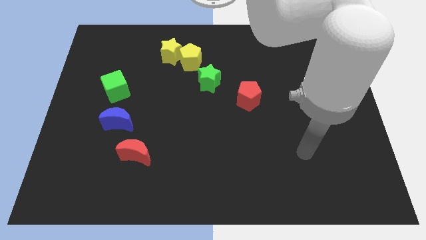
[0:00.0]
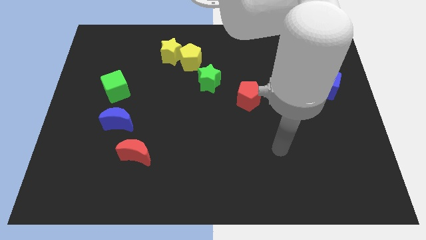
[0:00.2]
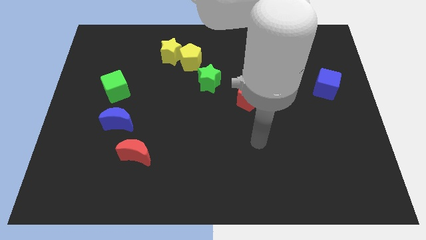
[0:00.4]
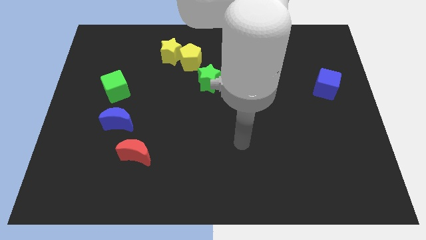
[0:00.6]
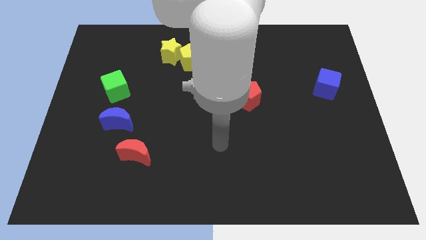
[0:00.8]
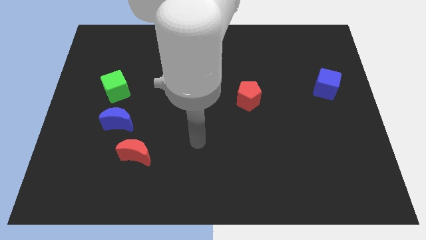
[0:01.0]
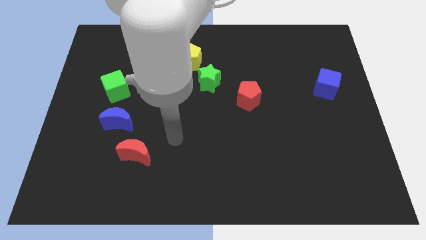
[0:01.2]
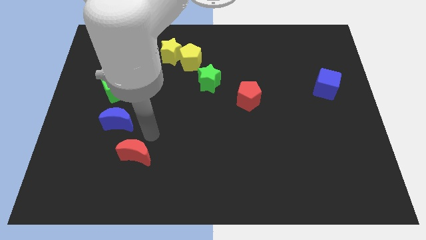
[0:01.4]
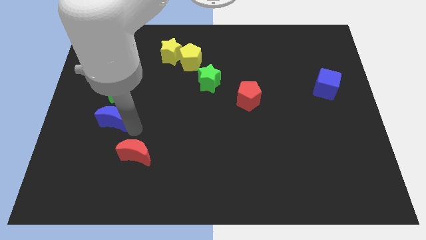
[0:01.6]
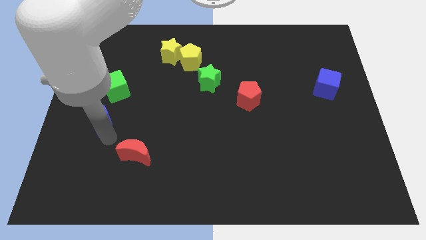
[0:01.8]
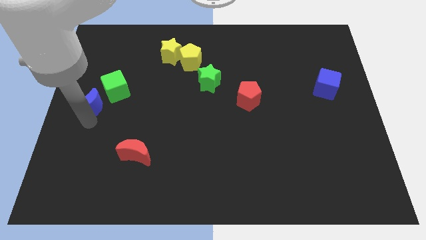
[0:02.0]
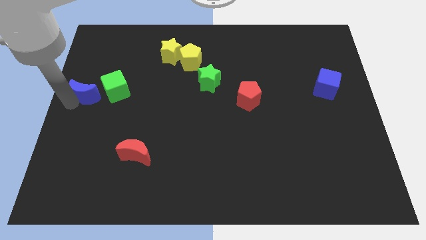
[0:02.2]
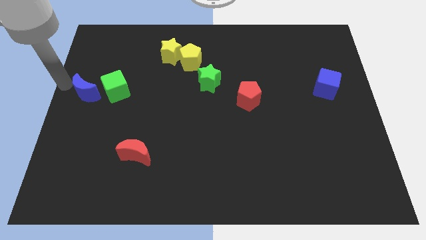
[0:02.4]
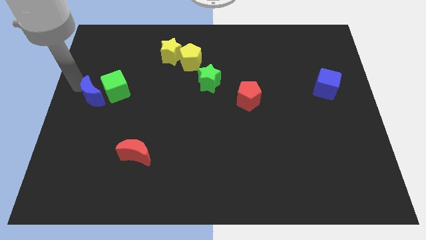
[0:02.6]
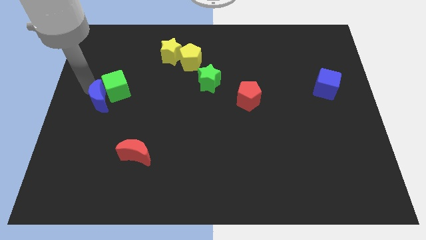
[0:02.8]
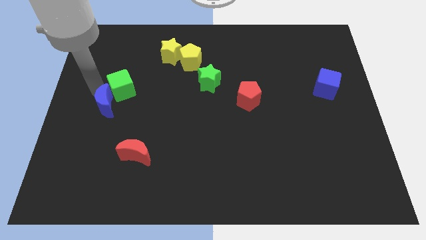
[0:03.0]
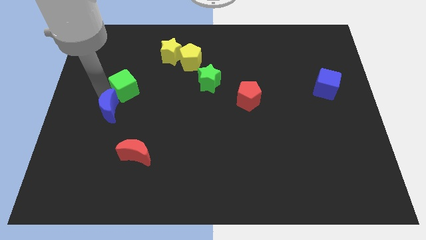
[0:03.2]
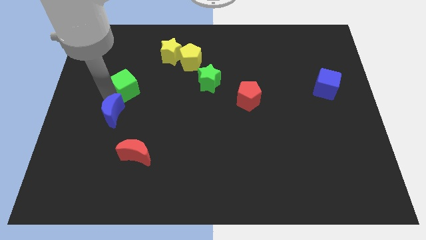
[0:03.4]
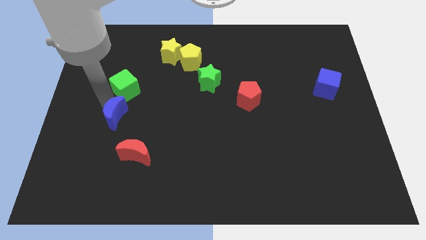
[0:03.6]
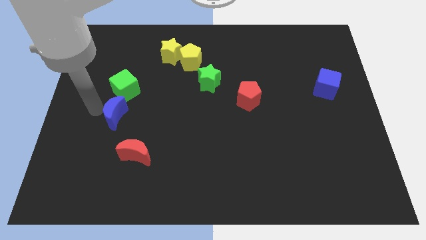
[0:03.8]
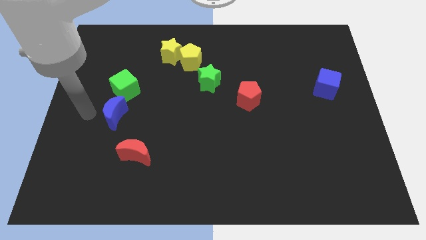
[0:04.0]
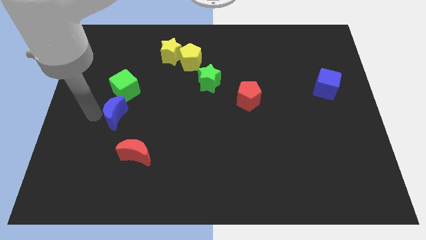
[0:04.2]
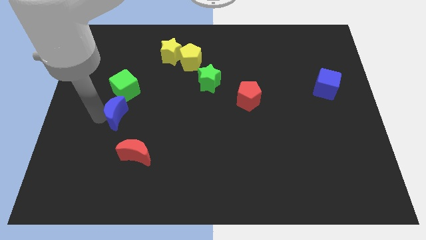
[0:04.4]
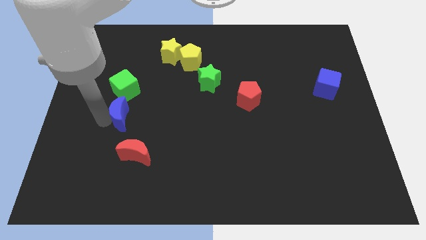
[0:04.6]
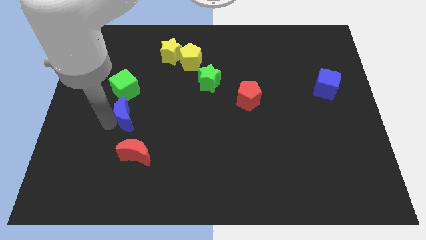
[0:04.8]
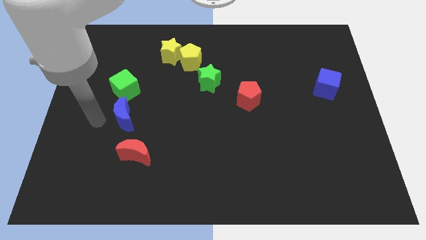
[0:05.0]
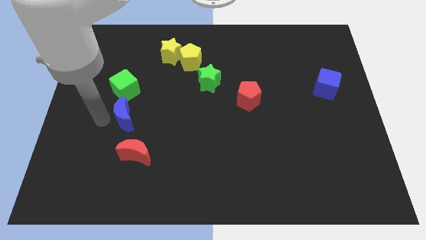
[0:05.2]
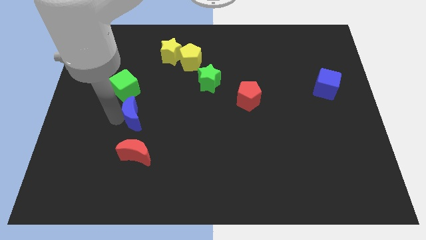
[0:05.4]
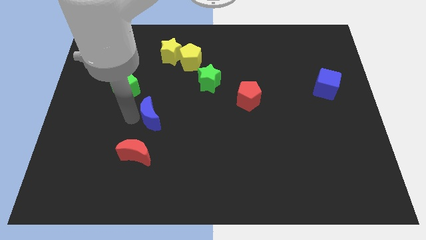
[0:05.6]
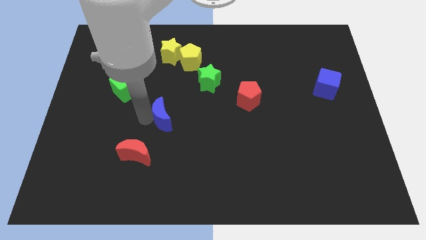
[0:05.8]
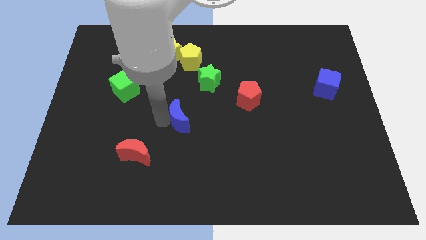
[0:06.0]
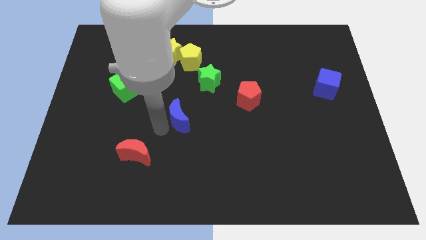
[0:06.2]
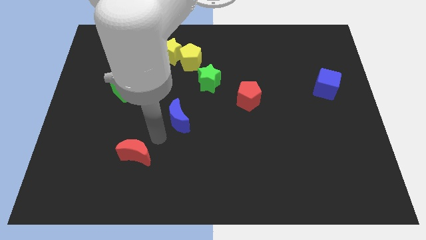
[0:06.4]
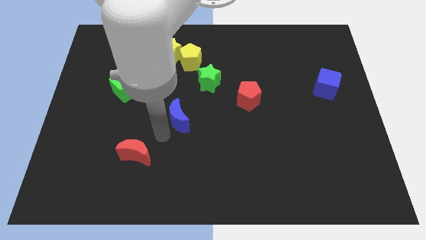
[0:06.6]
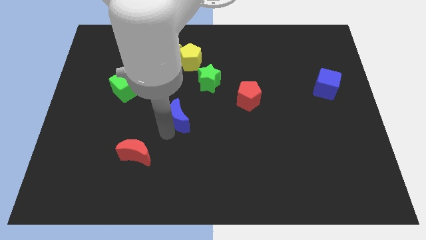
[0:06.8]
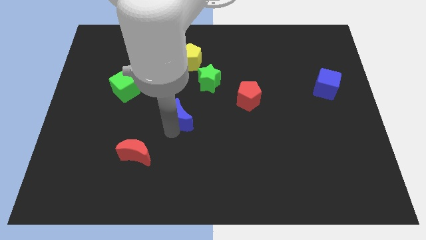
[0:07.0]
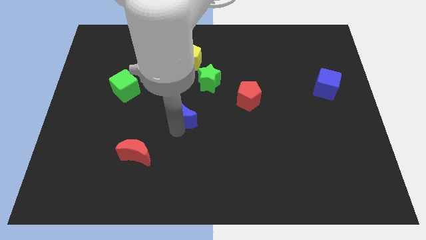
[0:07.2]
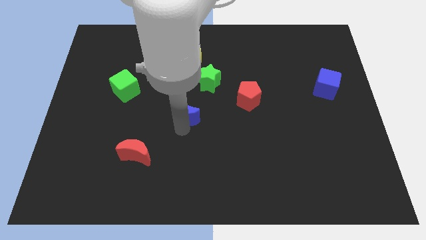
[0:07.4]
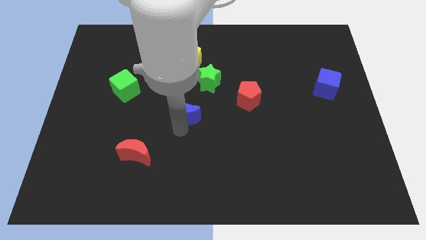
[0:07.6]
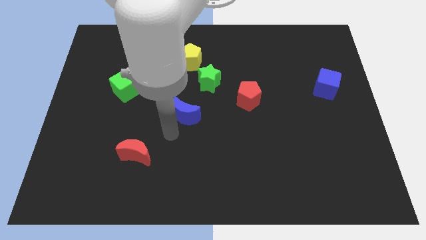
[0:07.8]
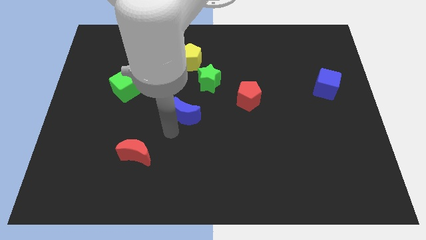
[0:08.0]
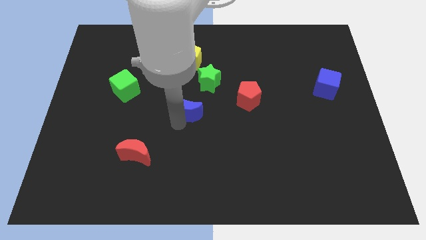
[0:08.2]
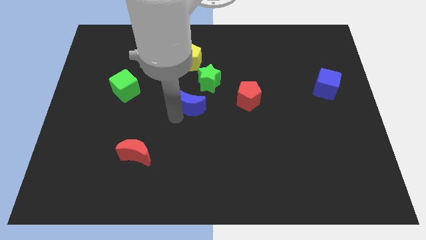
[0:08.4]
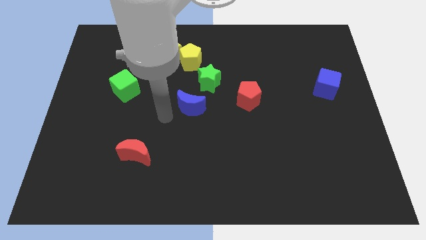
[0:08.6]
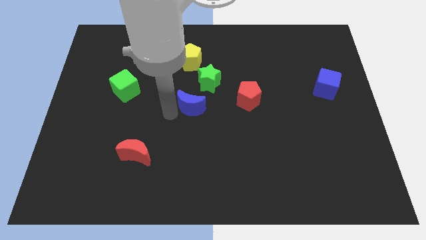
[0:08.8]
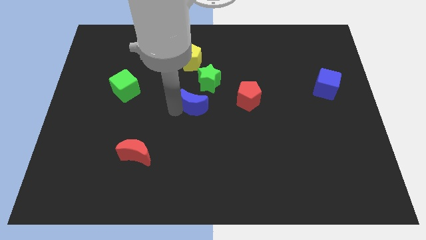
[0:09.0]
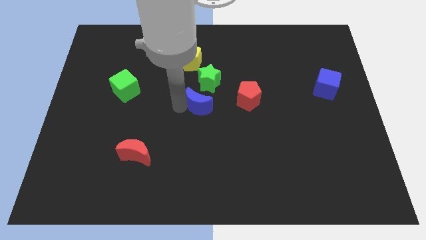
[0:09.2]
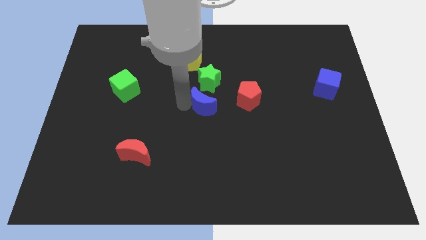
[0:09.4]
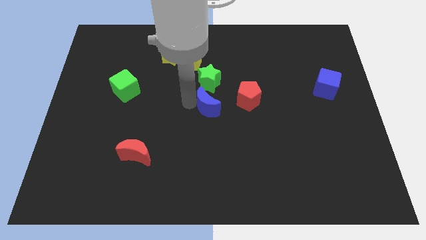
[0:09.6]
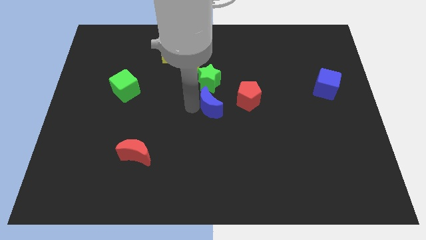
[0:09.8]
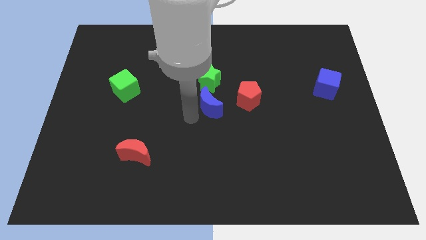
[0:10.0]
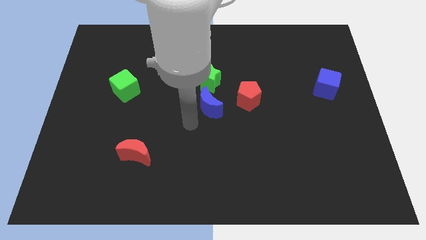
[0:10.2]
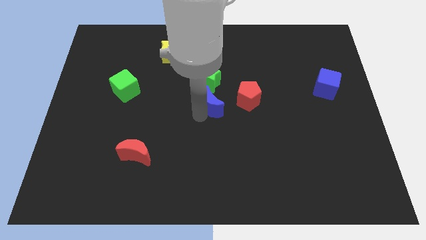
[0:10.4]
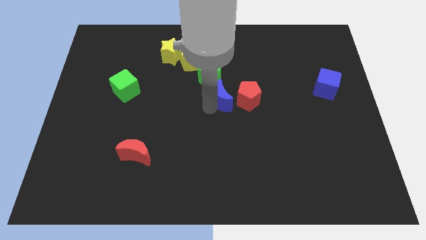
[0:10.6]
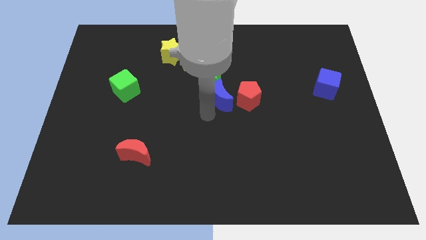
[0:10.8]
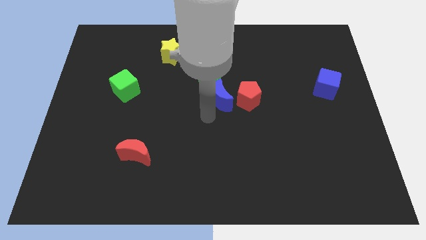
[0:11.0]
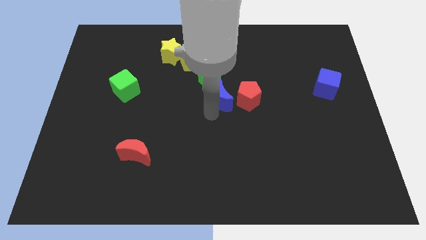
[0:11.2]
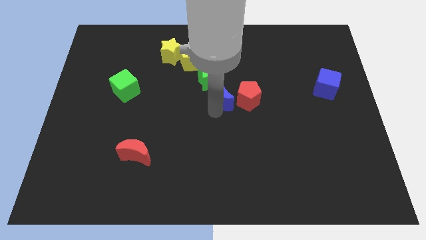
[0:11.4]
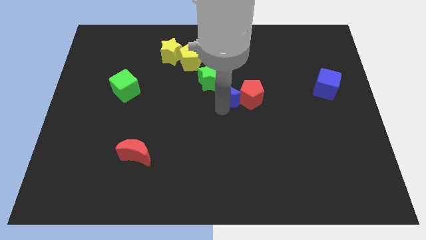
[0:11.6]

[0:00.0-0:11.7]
slide the blue moon to the right side of the green star

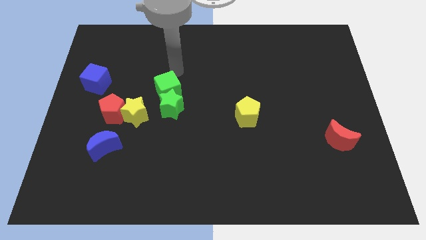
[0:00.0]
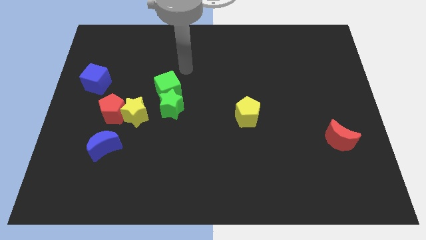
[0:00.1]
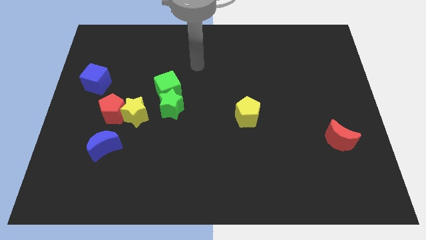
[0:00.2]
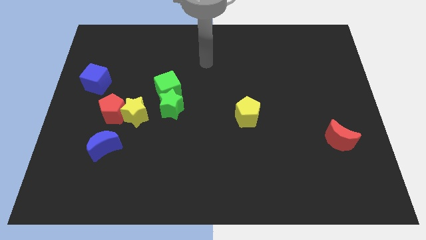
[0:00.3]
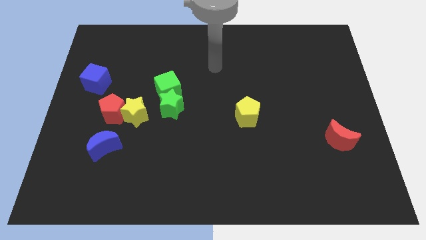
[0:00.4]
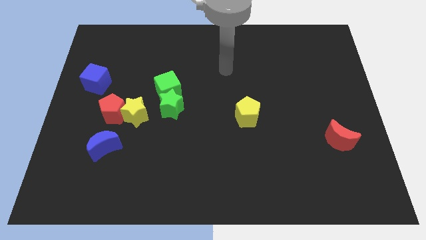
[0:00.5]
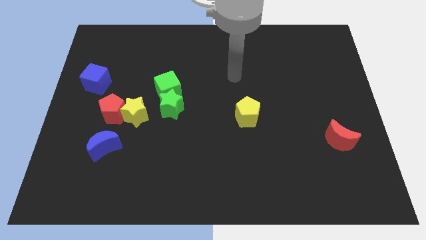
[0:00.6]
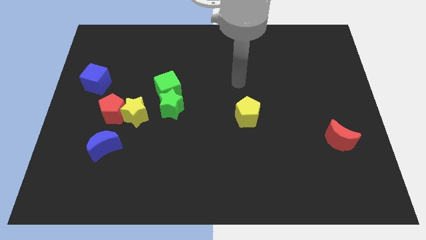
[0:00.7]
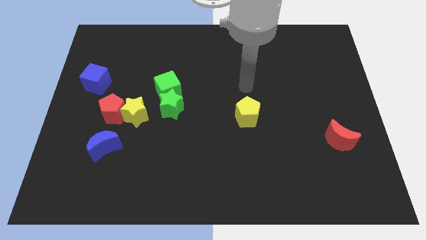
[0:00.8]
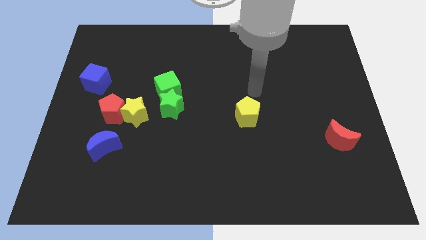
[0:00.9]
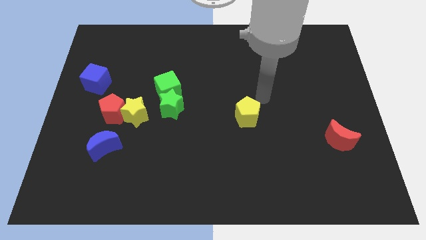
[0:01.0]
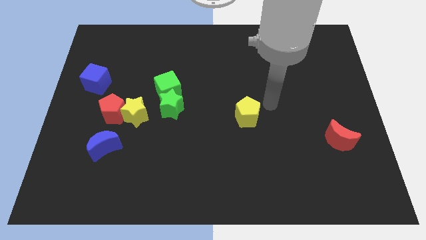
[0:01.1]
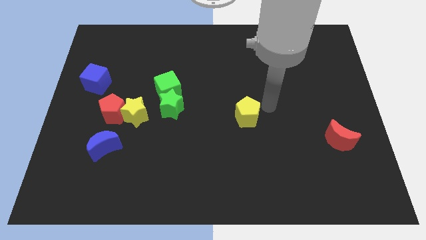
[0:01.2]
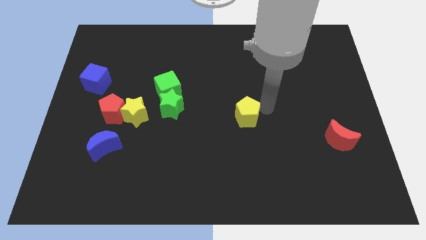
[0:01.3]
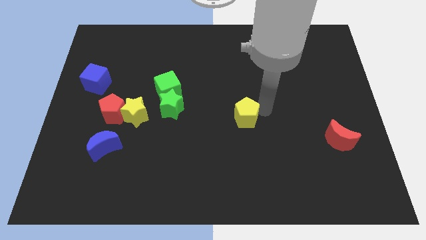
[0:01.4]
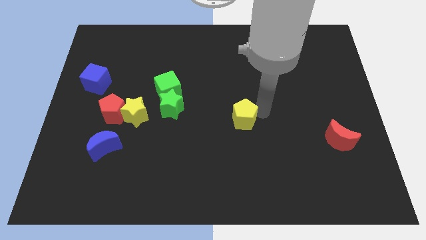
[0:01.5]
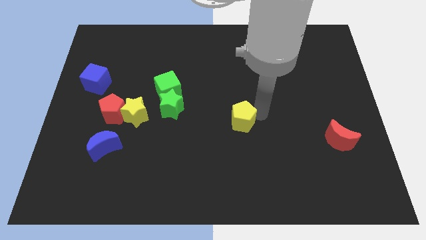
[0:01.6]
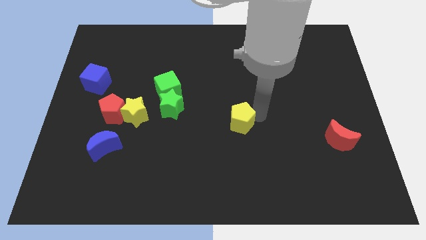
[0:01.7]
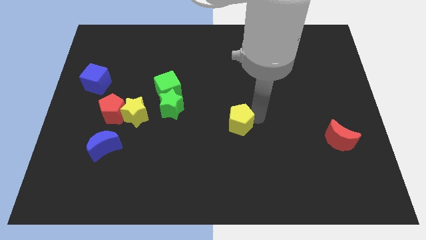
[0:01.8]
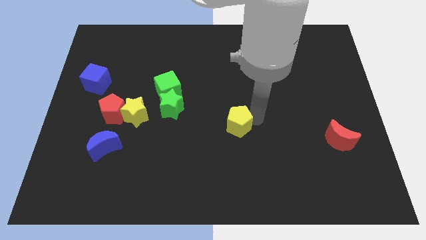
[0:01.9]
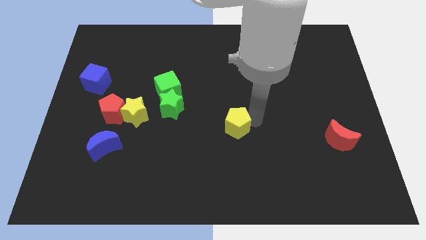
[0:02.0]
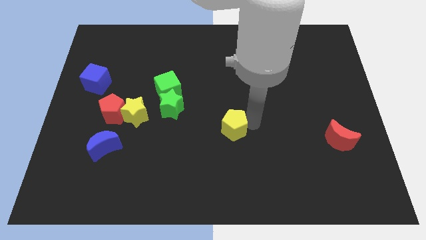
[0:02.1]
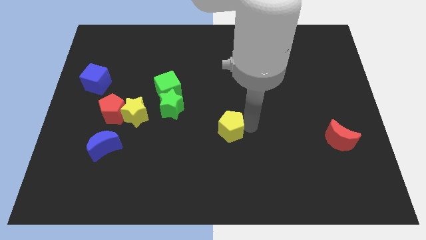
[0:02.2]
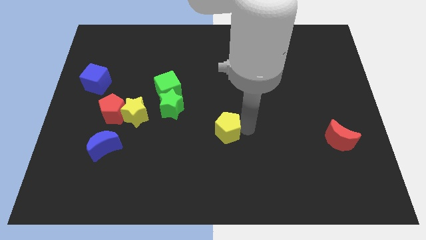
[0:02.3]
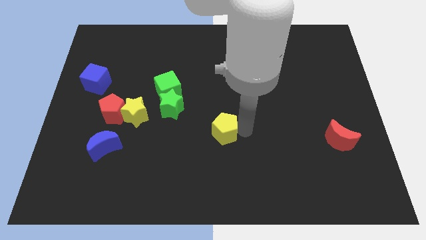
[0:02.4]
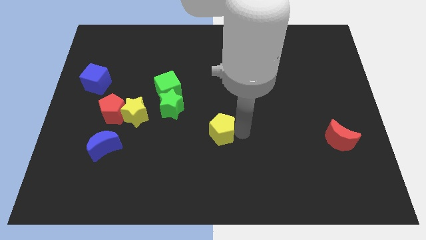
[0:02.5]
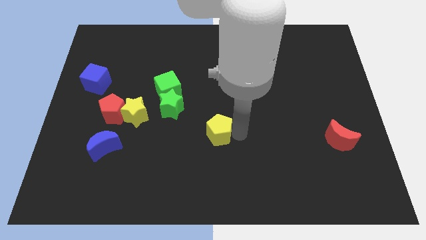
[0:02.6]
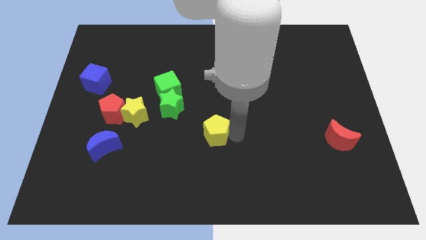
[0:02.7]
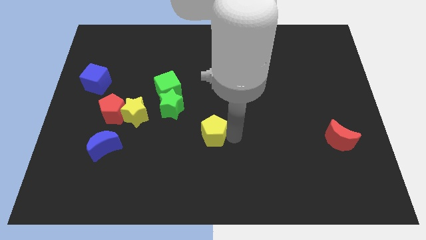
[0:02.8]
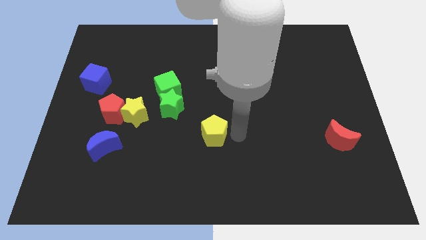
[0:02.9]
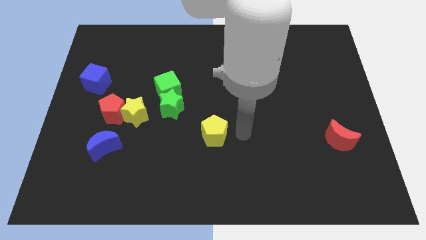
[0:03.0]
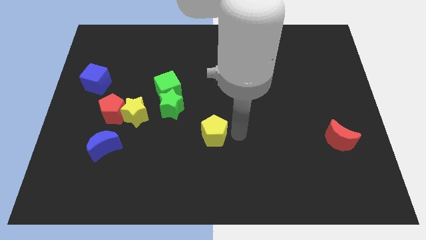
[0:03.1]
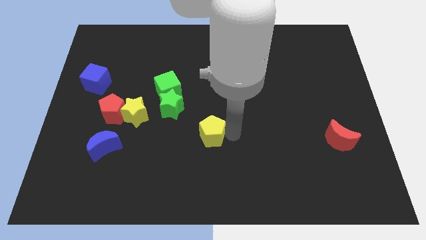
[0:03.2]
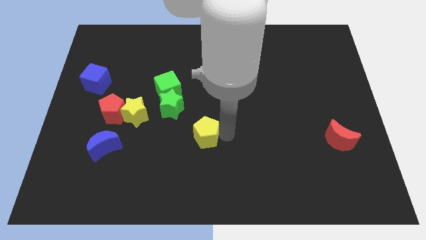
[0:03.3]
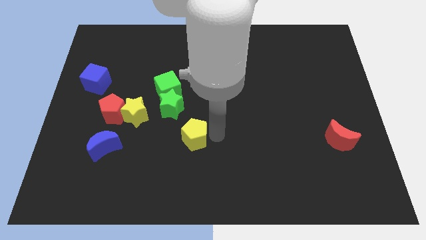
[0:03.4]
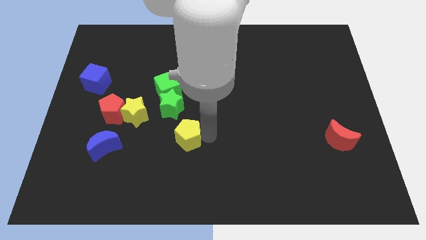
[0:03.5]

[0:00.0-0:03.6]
put the yellow pentagon to the bottom side of the green star
